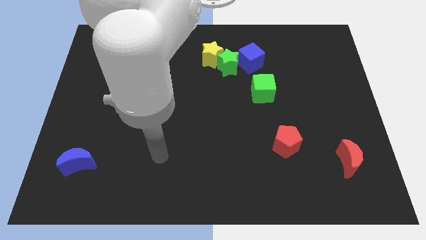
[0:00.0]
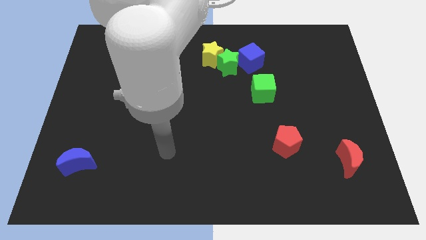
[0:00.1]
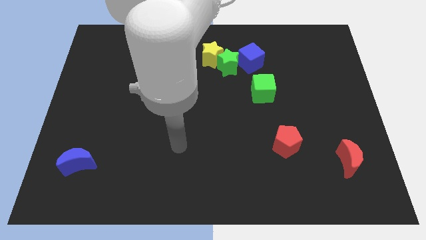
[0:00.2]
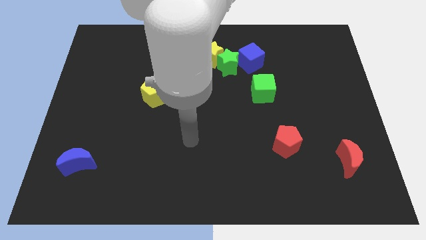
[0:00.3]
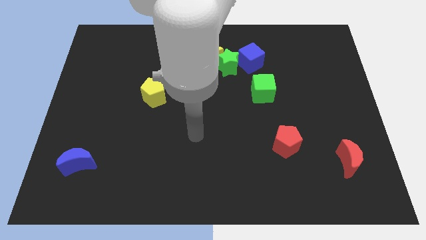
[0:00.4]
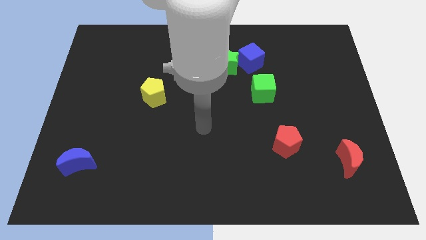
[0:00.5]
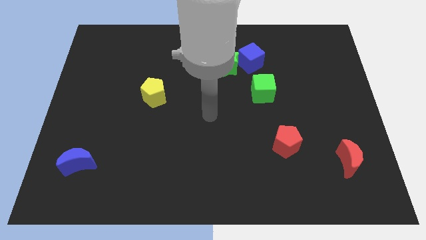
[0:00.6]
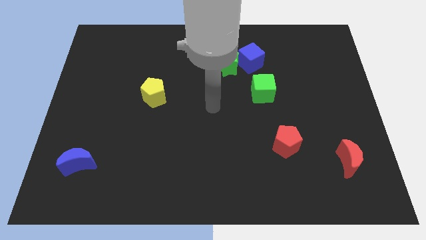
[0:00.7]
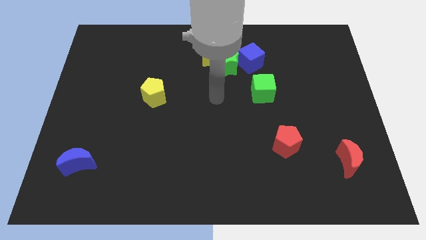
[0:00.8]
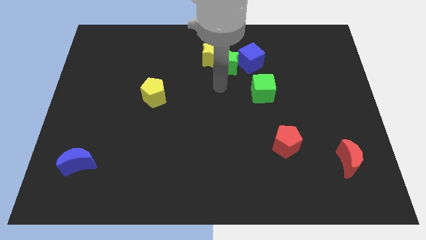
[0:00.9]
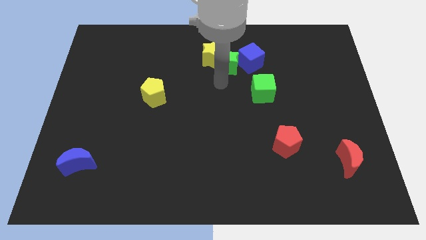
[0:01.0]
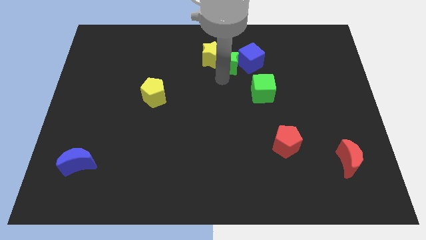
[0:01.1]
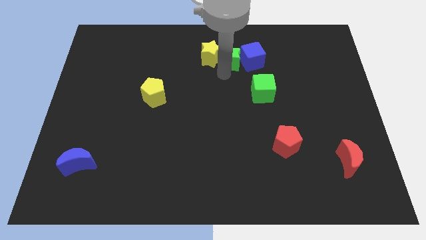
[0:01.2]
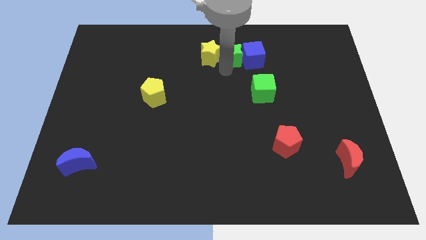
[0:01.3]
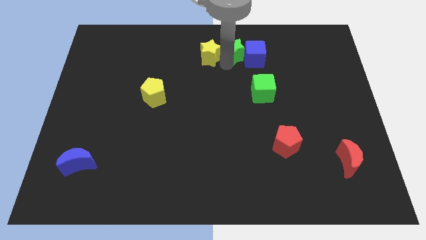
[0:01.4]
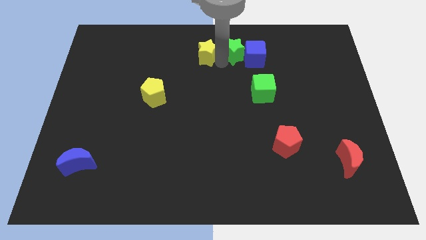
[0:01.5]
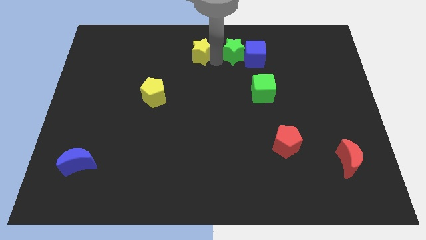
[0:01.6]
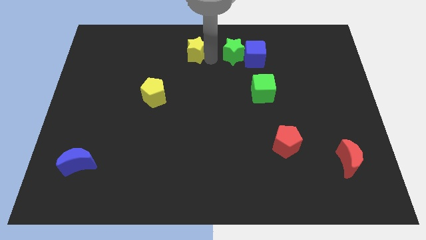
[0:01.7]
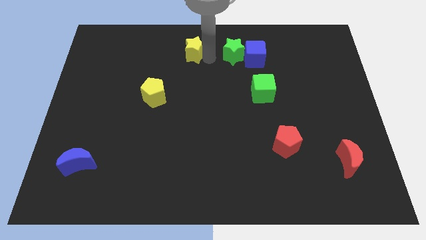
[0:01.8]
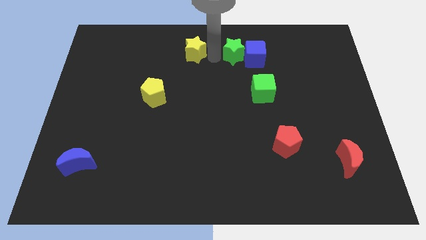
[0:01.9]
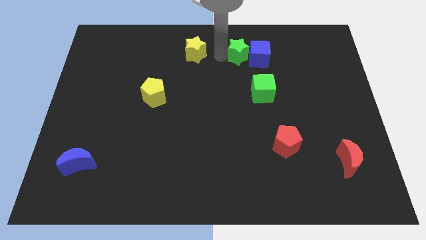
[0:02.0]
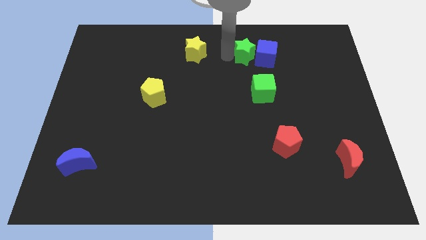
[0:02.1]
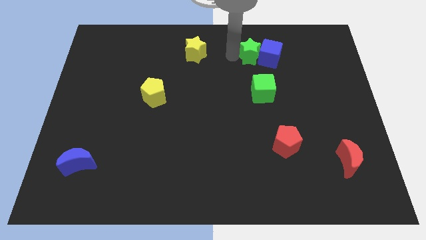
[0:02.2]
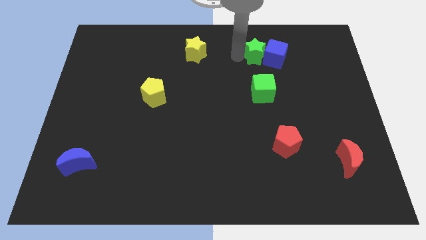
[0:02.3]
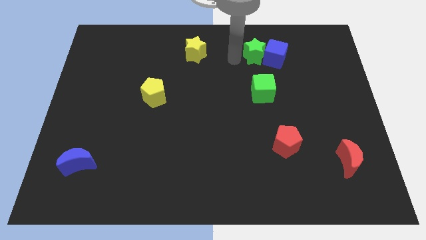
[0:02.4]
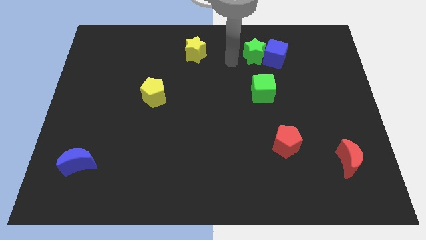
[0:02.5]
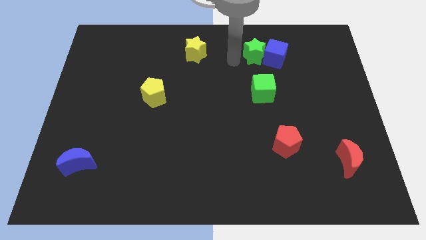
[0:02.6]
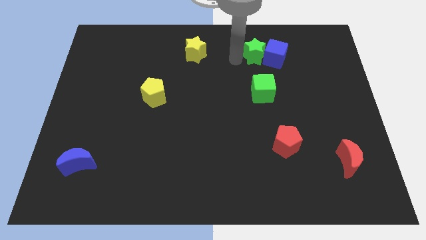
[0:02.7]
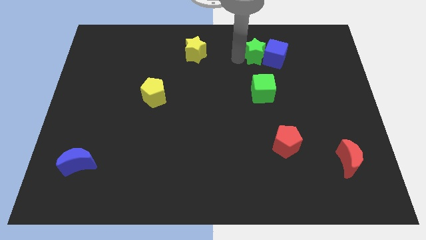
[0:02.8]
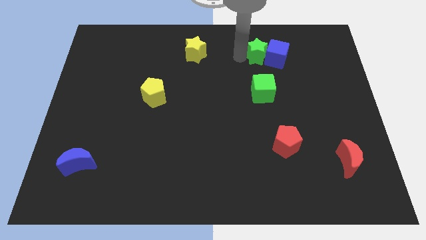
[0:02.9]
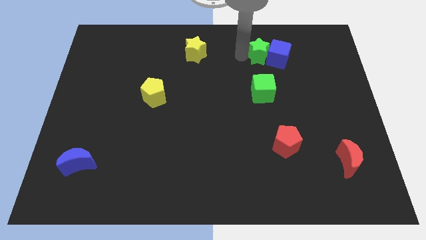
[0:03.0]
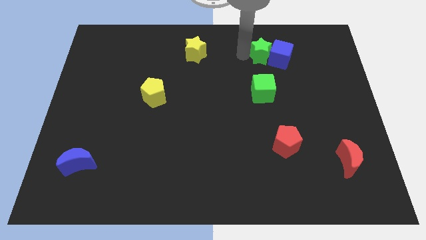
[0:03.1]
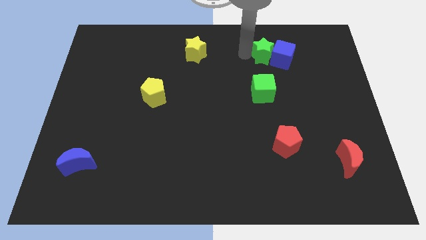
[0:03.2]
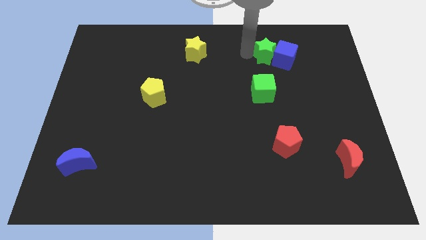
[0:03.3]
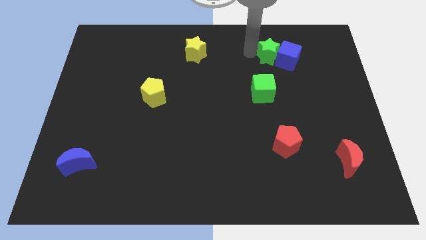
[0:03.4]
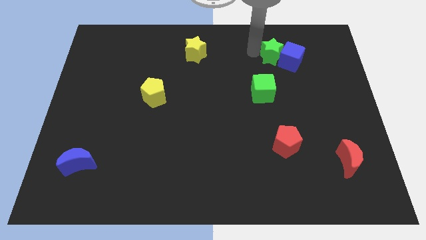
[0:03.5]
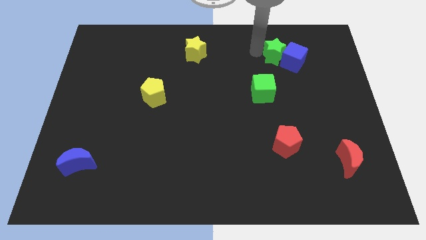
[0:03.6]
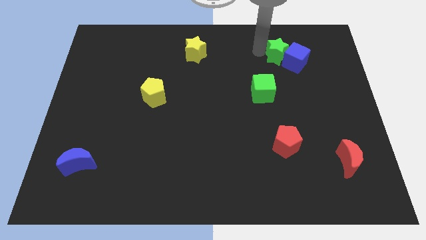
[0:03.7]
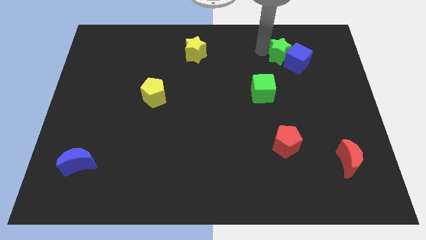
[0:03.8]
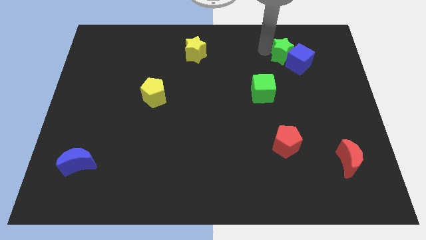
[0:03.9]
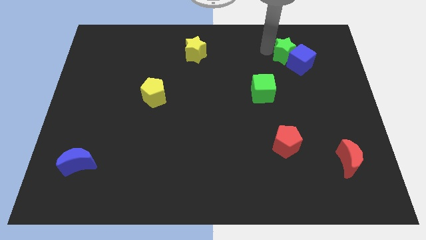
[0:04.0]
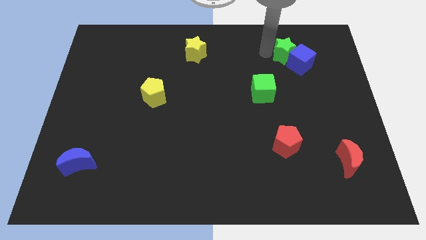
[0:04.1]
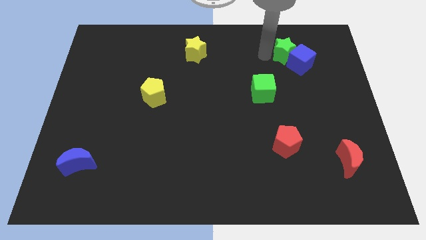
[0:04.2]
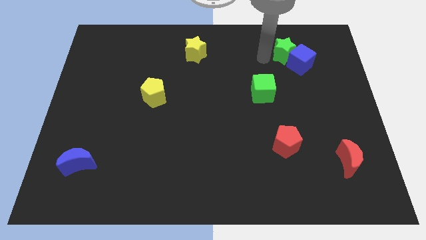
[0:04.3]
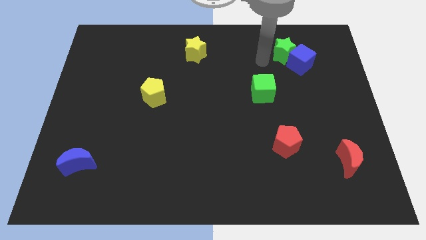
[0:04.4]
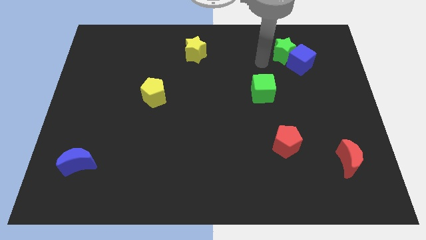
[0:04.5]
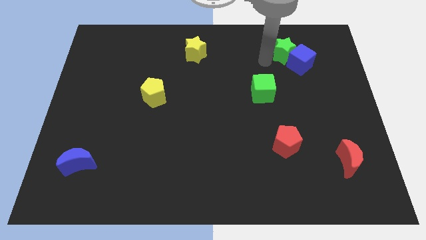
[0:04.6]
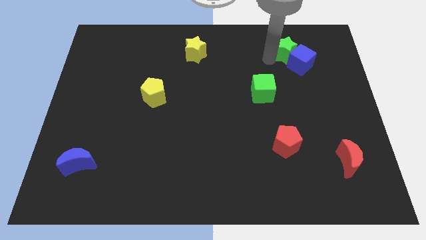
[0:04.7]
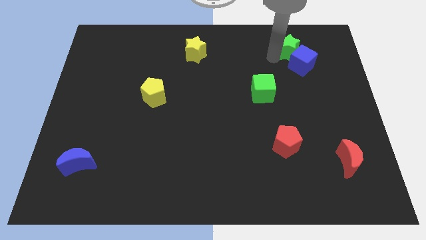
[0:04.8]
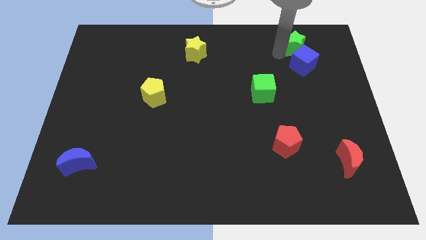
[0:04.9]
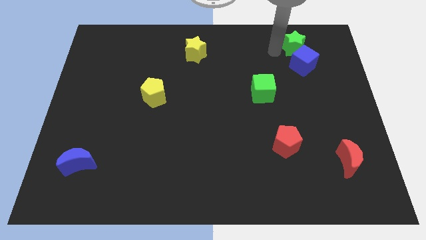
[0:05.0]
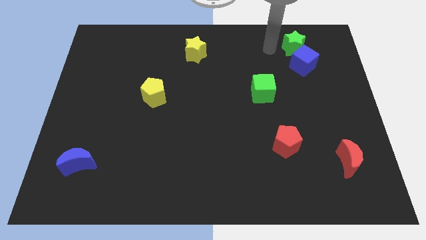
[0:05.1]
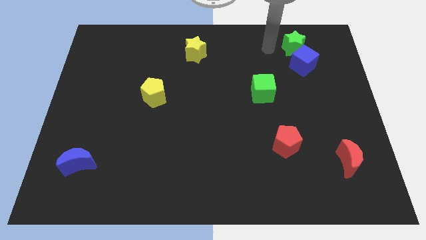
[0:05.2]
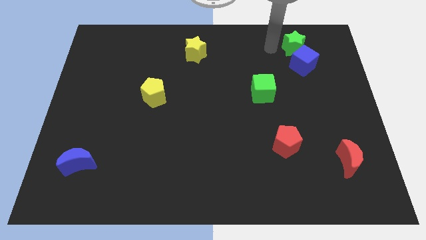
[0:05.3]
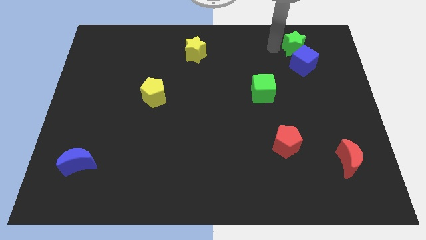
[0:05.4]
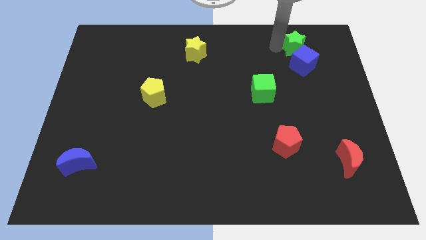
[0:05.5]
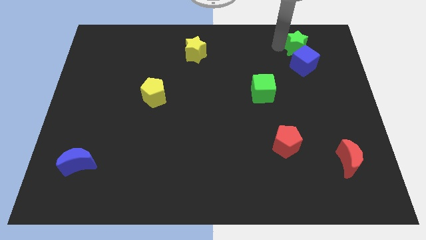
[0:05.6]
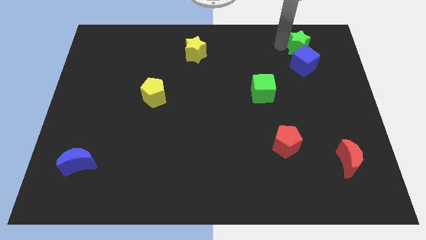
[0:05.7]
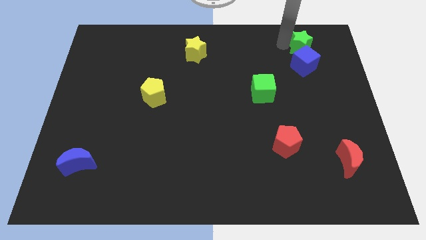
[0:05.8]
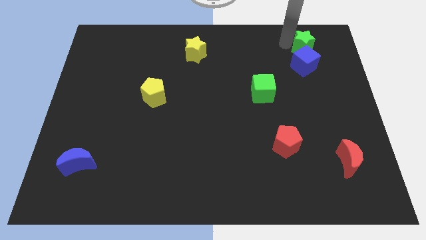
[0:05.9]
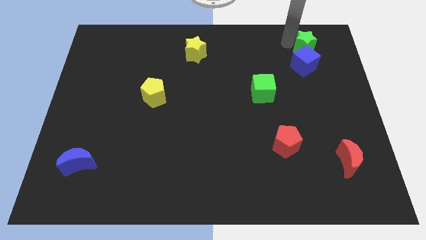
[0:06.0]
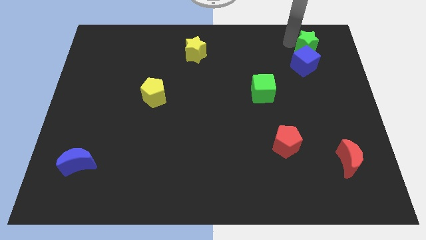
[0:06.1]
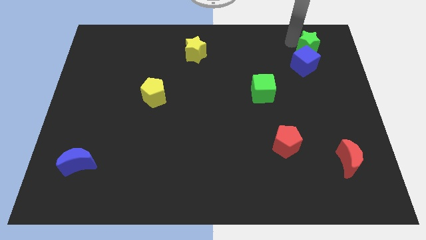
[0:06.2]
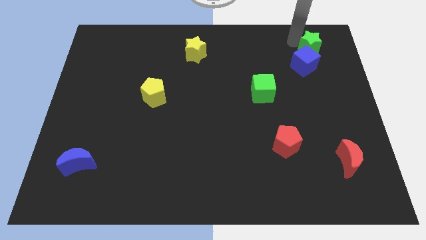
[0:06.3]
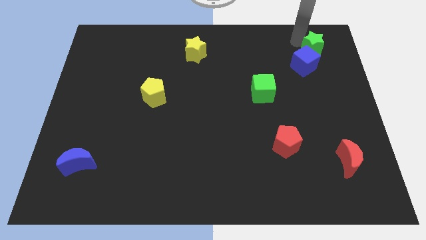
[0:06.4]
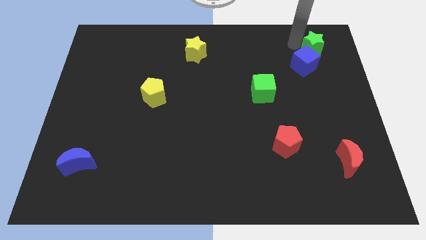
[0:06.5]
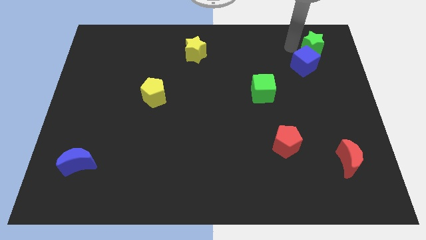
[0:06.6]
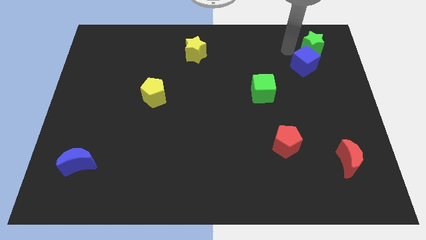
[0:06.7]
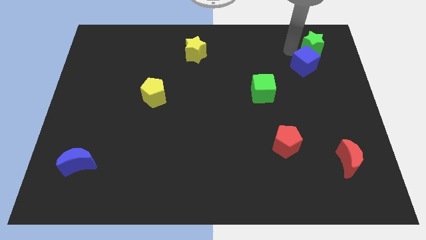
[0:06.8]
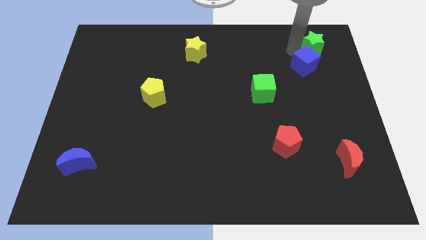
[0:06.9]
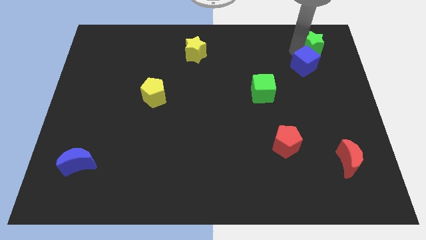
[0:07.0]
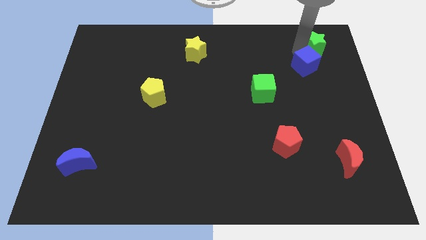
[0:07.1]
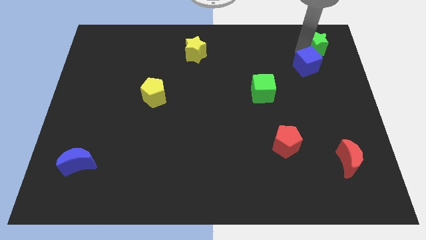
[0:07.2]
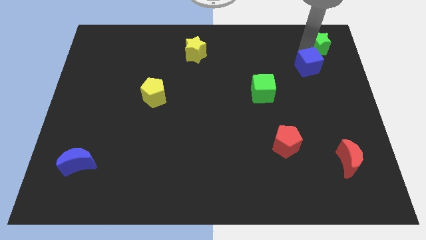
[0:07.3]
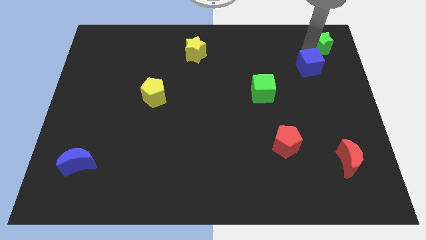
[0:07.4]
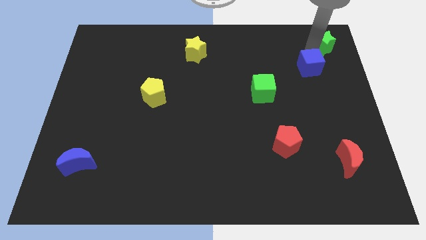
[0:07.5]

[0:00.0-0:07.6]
move the green star to the top right of the board
